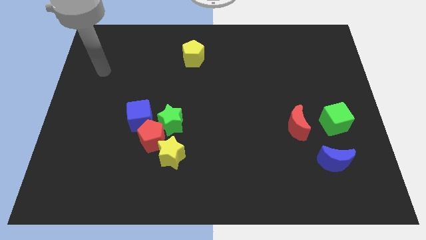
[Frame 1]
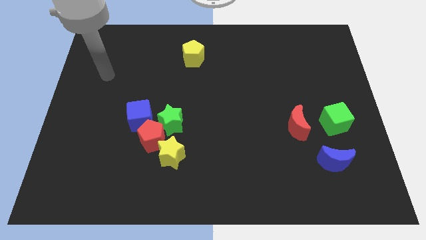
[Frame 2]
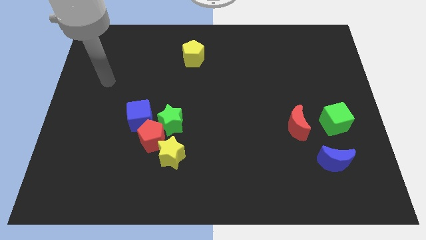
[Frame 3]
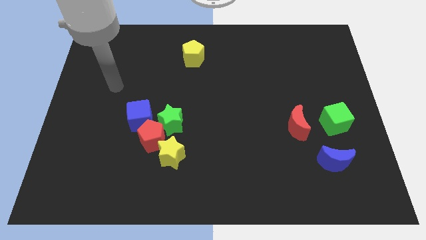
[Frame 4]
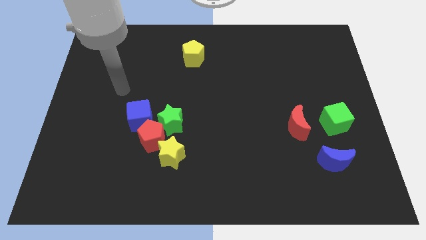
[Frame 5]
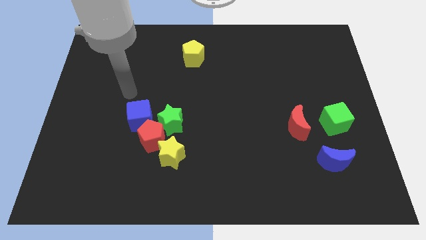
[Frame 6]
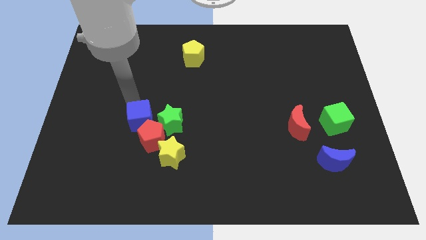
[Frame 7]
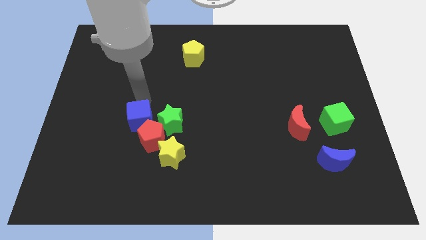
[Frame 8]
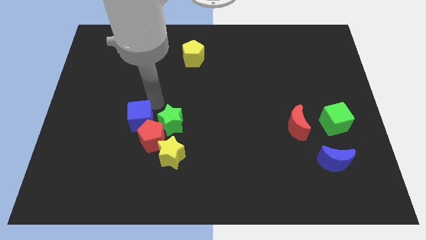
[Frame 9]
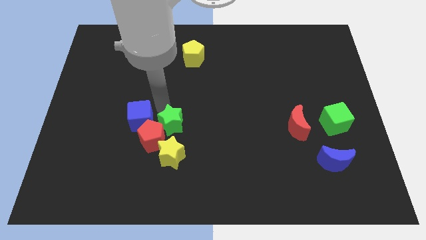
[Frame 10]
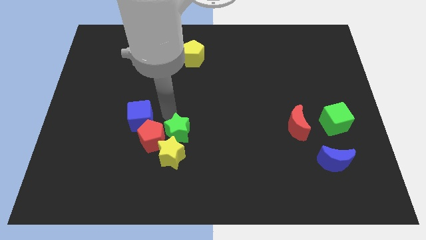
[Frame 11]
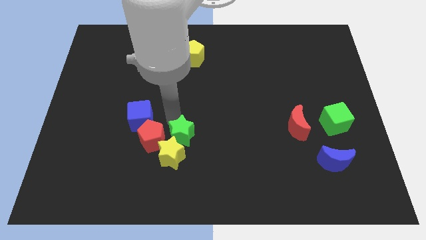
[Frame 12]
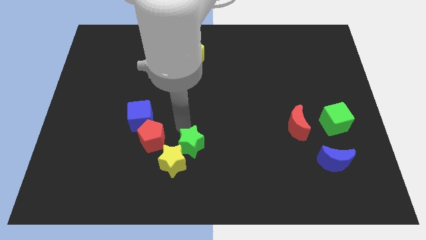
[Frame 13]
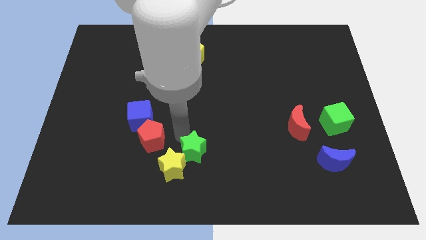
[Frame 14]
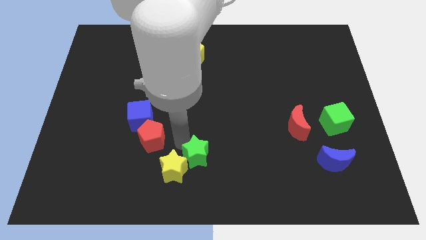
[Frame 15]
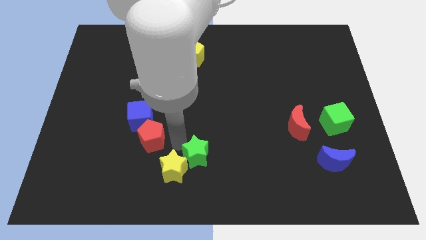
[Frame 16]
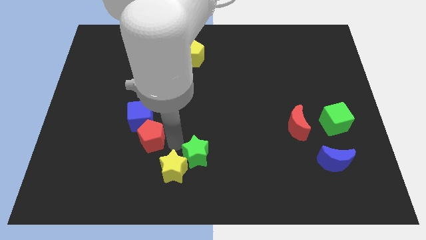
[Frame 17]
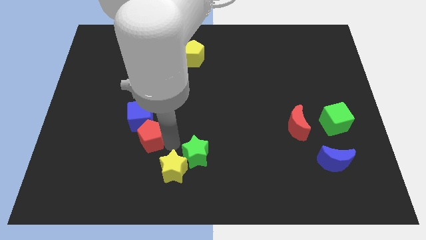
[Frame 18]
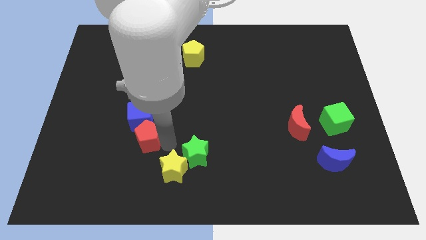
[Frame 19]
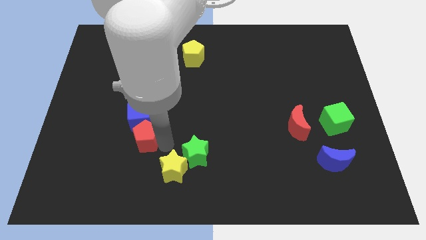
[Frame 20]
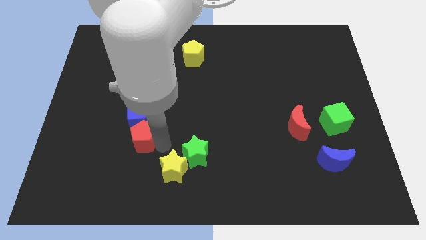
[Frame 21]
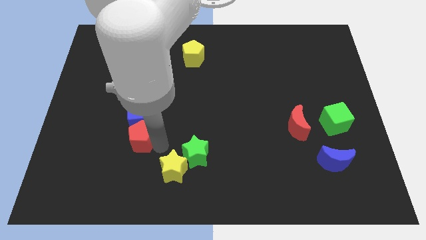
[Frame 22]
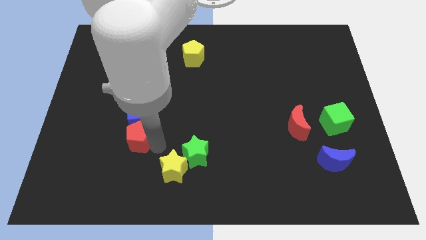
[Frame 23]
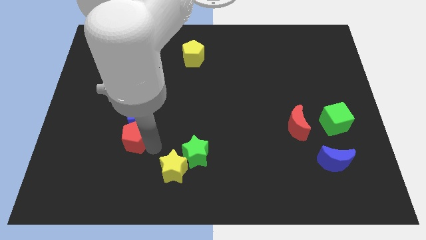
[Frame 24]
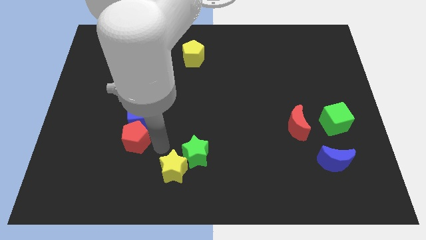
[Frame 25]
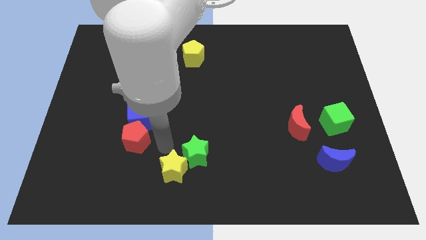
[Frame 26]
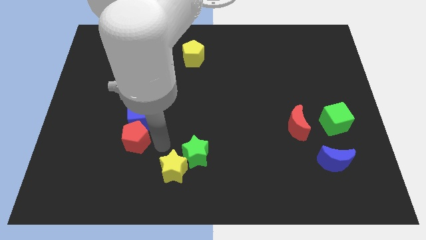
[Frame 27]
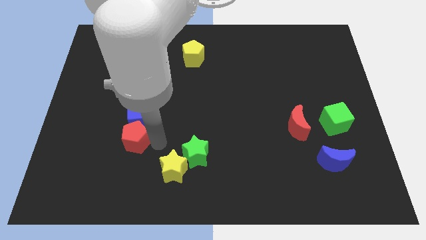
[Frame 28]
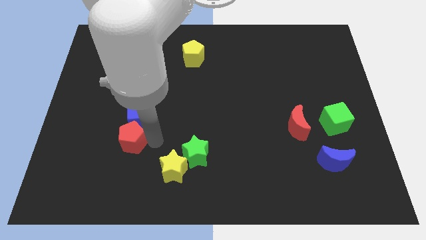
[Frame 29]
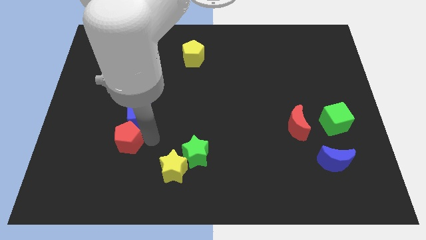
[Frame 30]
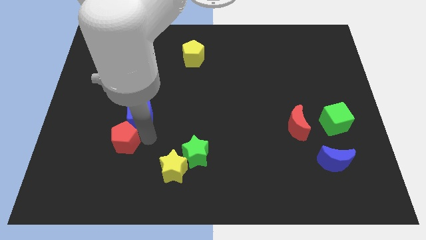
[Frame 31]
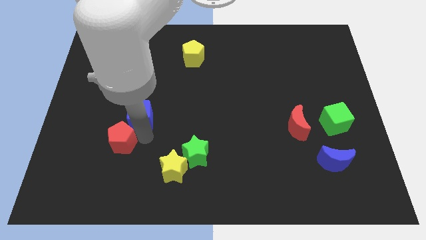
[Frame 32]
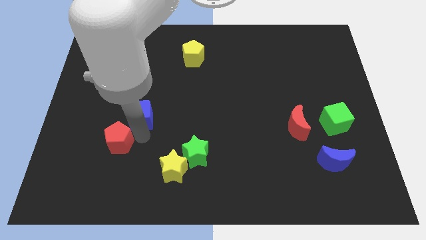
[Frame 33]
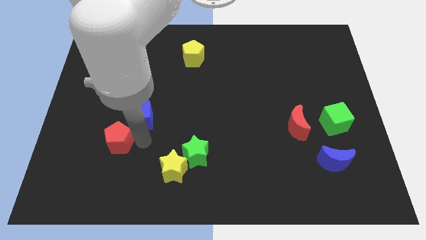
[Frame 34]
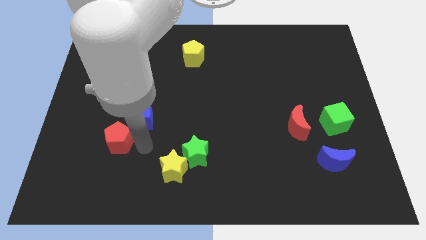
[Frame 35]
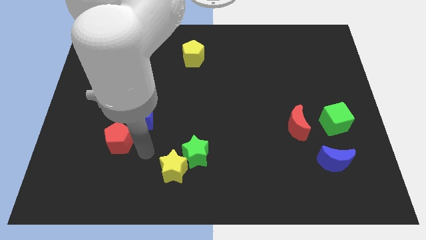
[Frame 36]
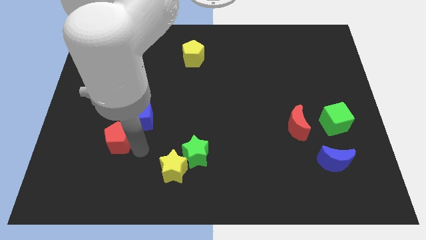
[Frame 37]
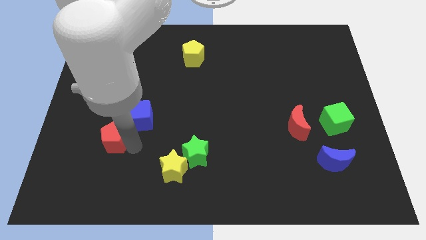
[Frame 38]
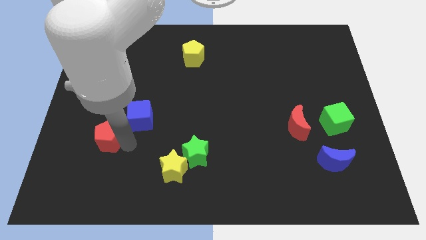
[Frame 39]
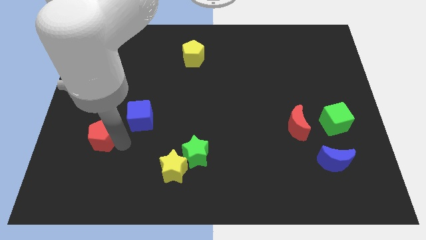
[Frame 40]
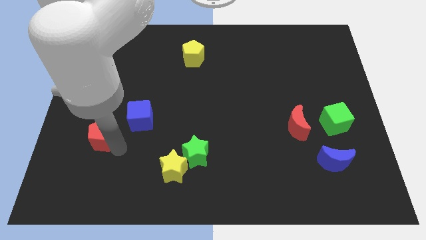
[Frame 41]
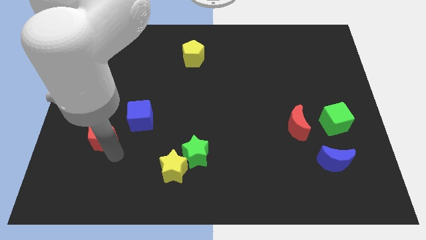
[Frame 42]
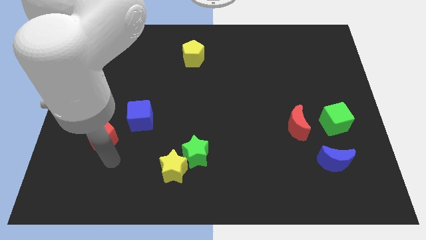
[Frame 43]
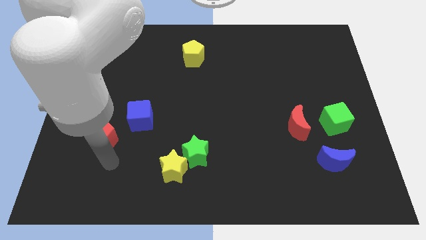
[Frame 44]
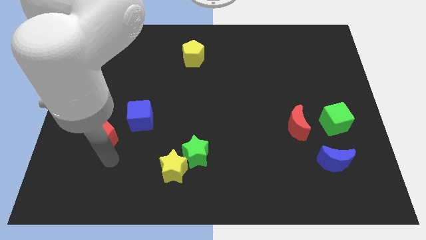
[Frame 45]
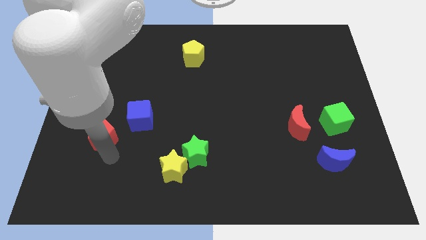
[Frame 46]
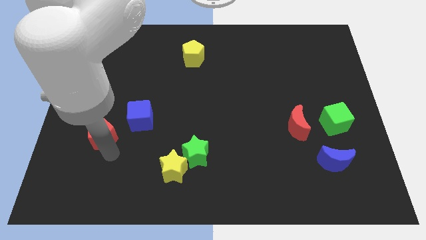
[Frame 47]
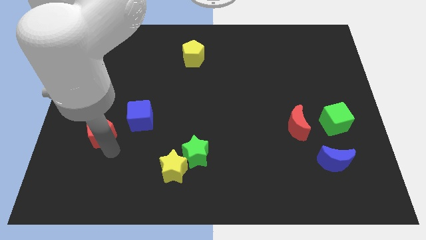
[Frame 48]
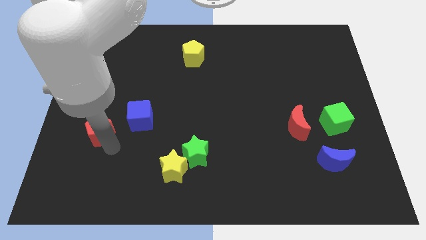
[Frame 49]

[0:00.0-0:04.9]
push the red pentagon a bit up and then left

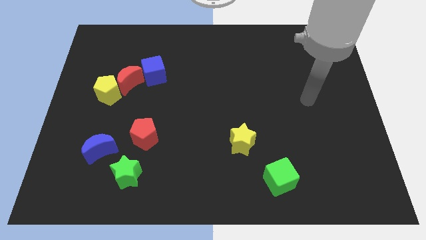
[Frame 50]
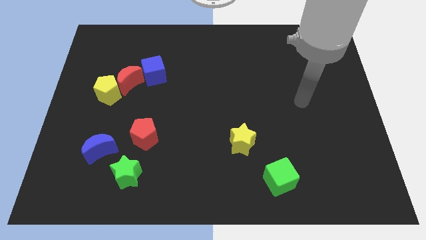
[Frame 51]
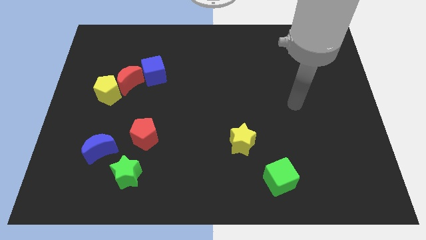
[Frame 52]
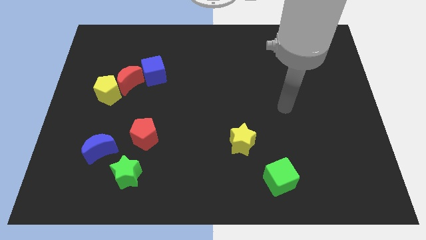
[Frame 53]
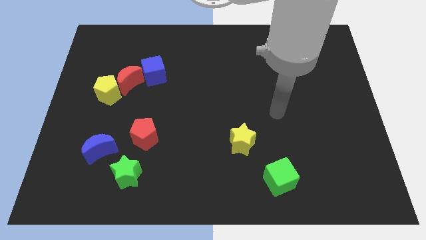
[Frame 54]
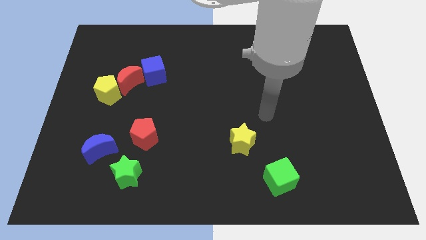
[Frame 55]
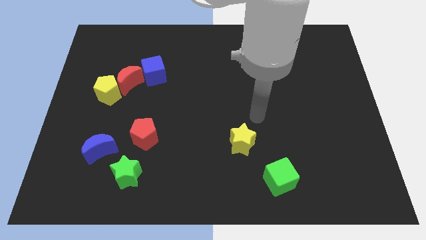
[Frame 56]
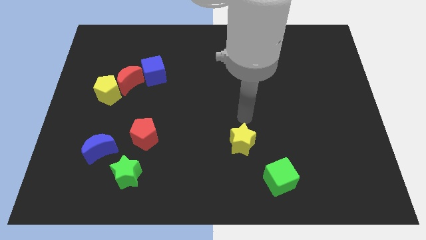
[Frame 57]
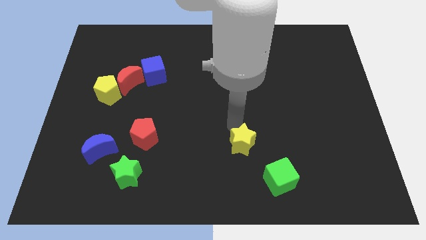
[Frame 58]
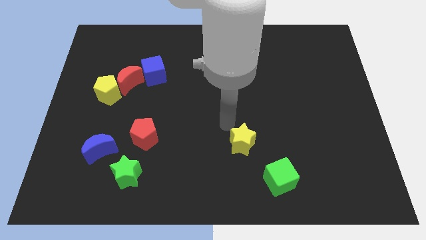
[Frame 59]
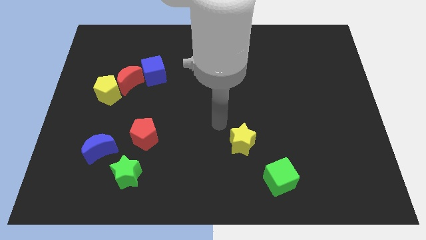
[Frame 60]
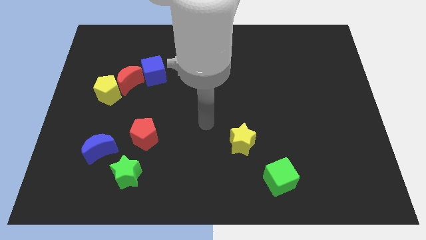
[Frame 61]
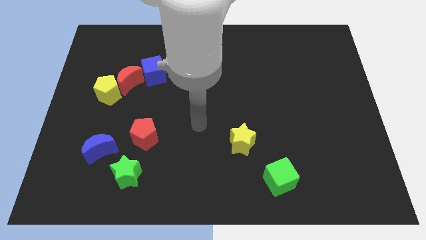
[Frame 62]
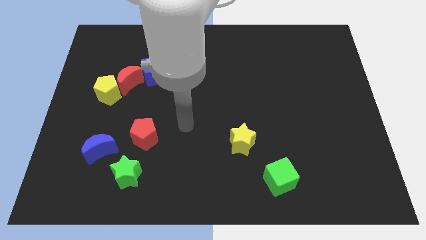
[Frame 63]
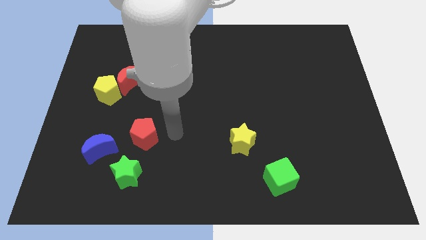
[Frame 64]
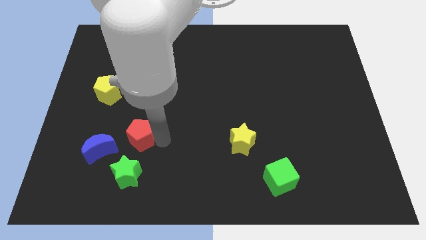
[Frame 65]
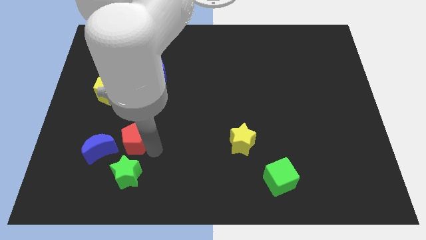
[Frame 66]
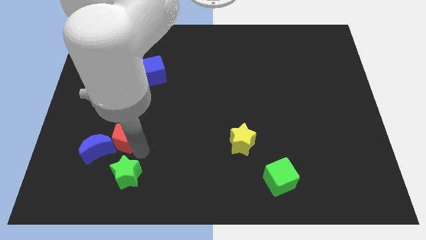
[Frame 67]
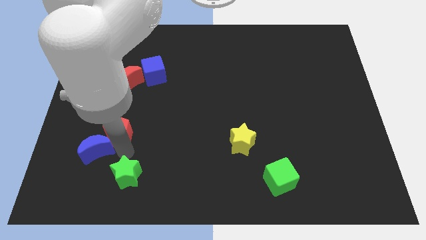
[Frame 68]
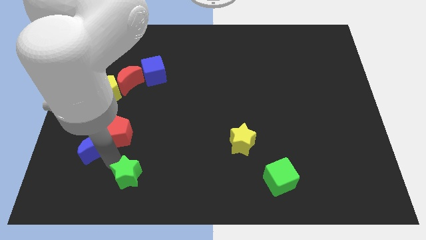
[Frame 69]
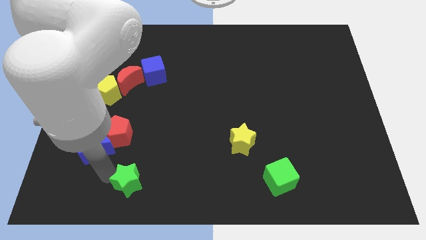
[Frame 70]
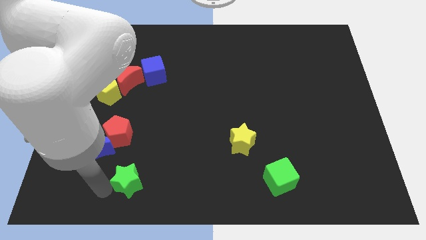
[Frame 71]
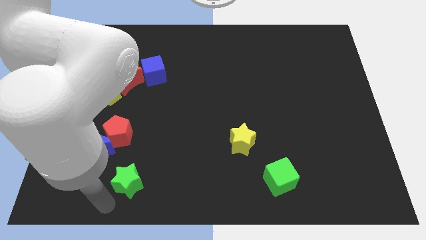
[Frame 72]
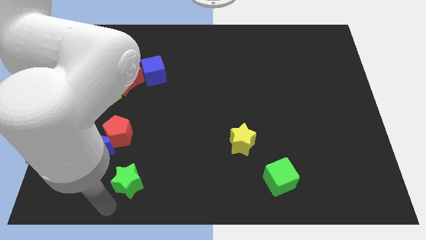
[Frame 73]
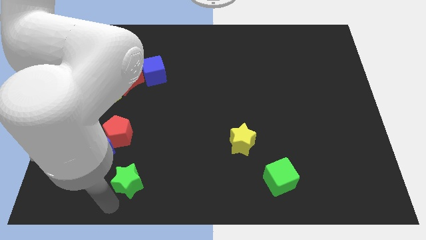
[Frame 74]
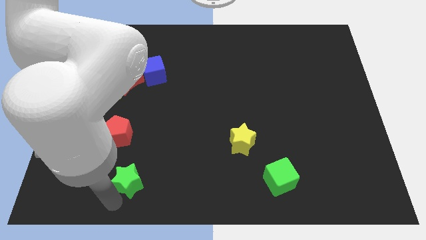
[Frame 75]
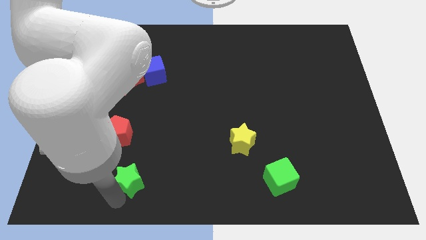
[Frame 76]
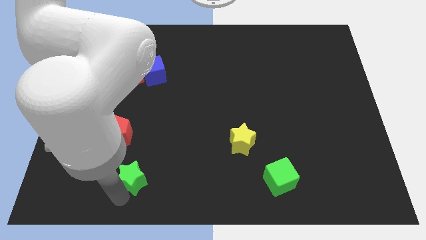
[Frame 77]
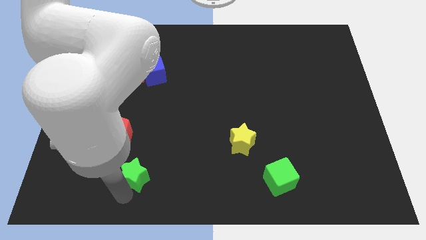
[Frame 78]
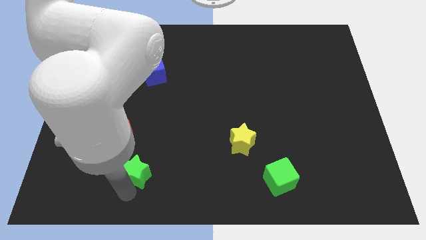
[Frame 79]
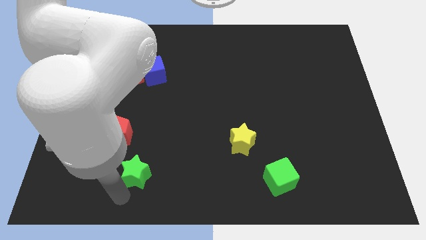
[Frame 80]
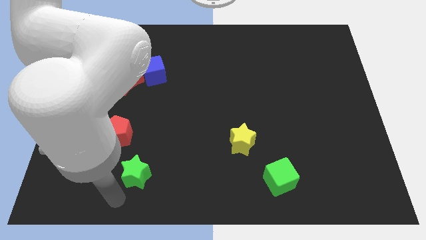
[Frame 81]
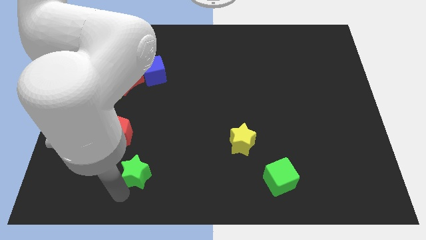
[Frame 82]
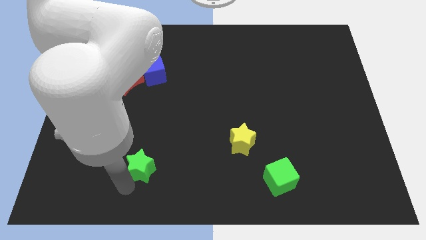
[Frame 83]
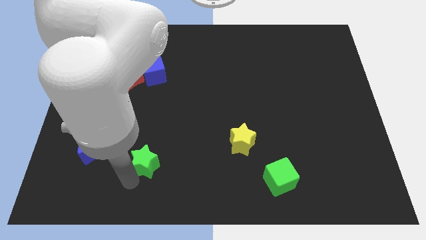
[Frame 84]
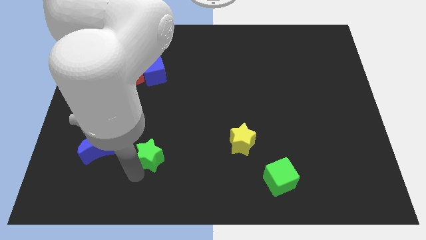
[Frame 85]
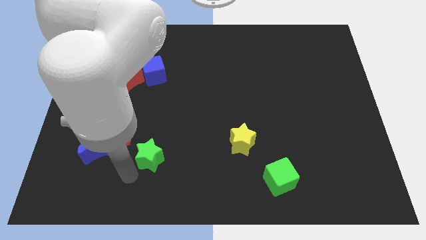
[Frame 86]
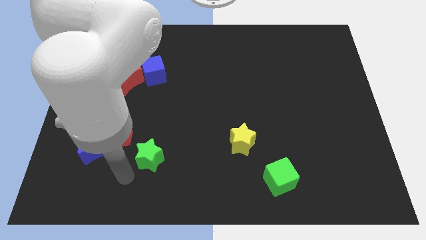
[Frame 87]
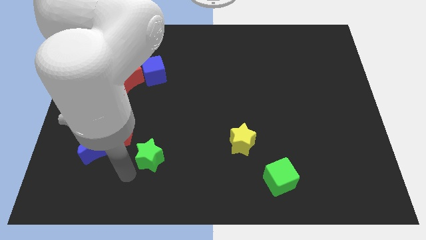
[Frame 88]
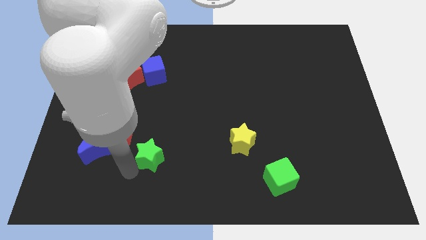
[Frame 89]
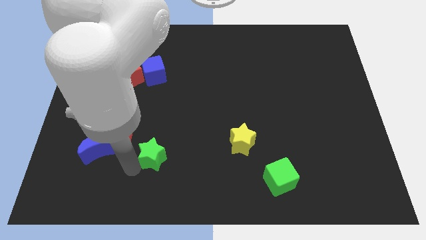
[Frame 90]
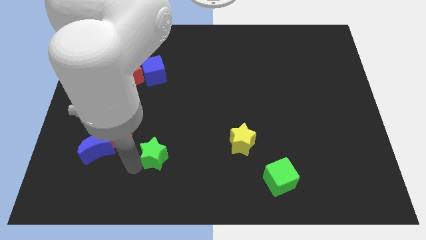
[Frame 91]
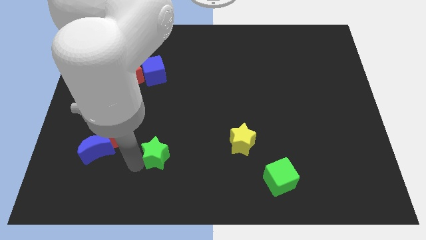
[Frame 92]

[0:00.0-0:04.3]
move the green star somewhat diagonally upwards and right
